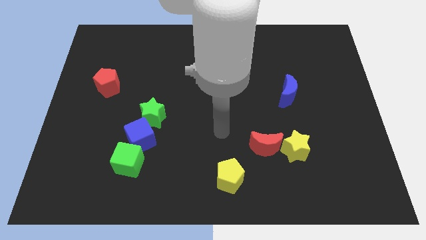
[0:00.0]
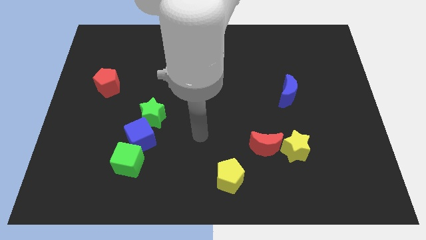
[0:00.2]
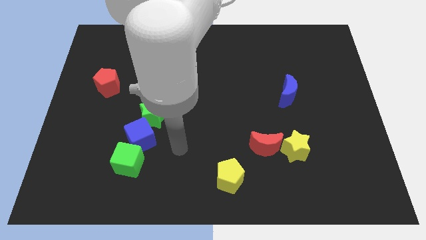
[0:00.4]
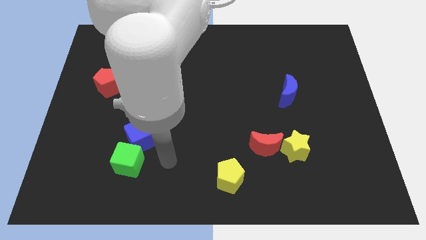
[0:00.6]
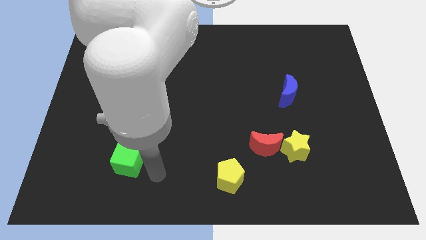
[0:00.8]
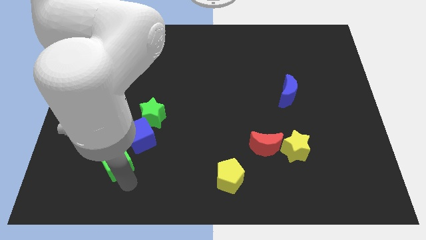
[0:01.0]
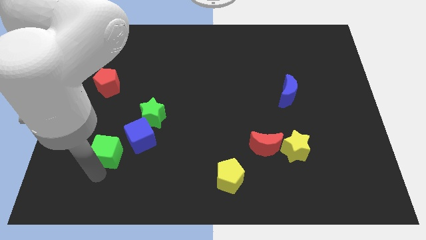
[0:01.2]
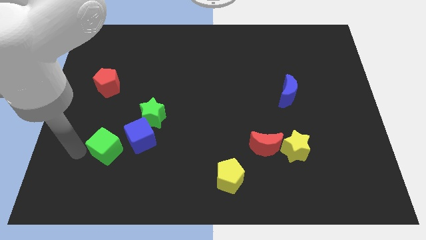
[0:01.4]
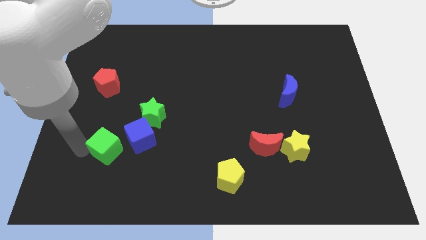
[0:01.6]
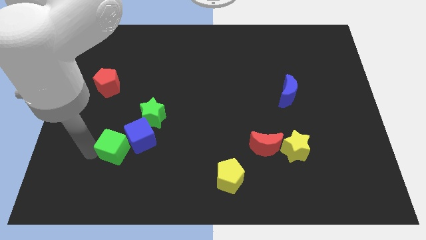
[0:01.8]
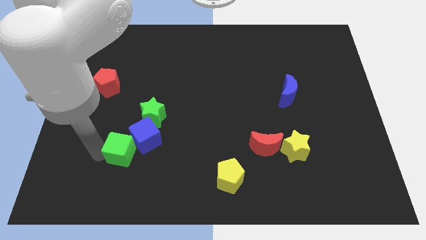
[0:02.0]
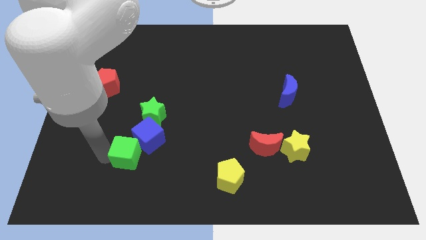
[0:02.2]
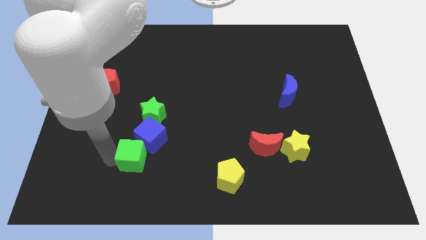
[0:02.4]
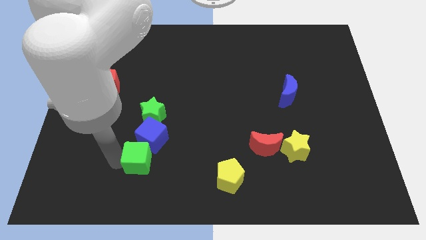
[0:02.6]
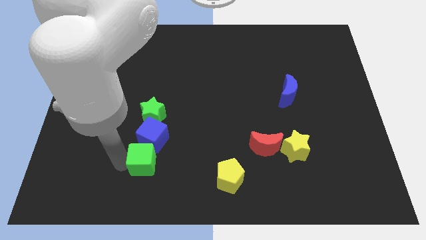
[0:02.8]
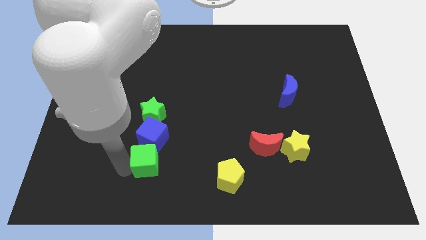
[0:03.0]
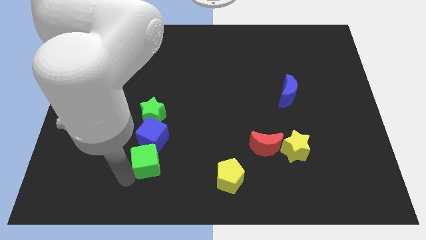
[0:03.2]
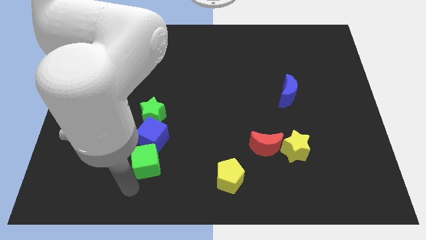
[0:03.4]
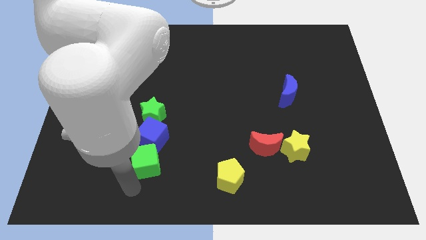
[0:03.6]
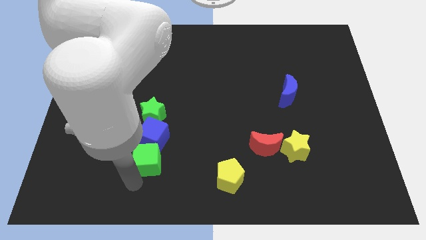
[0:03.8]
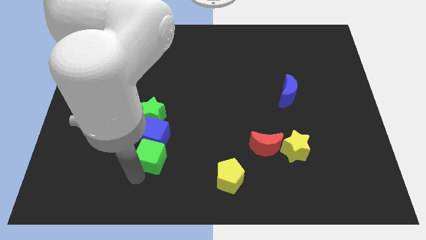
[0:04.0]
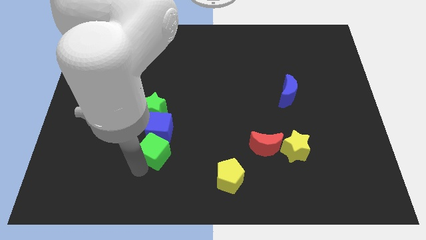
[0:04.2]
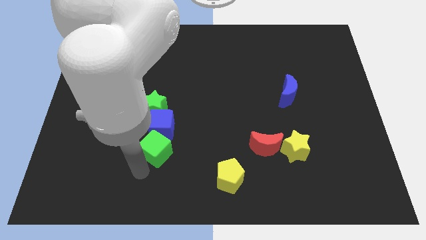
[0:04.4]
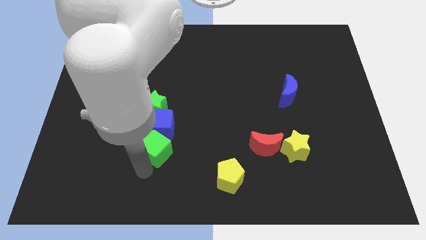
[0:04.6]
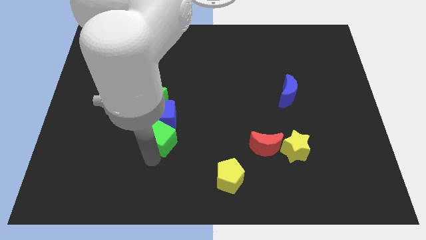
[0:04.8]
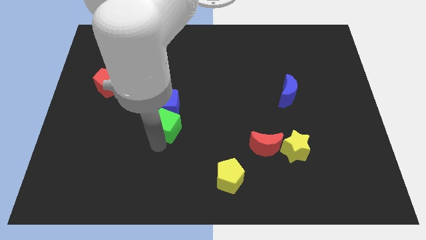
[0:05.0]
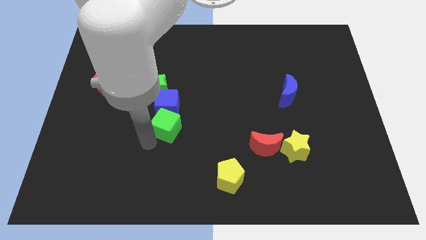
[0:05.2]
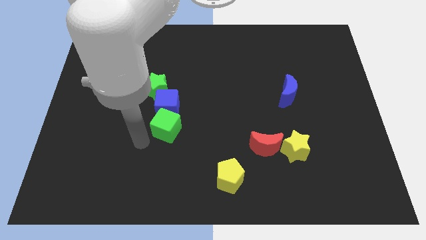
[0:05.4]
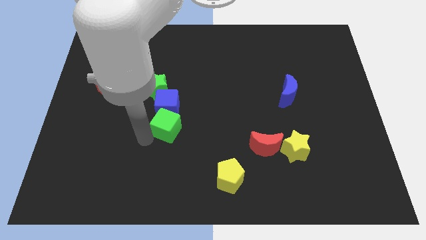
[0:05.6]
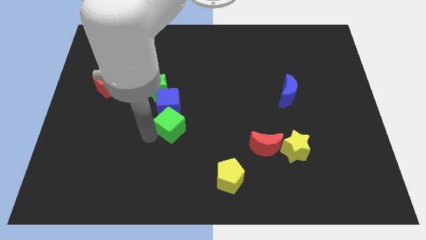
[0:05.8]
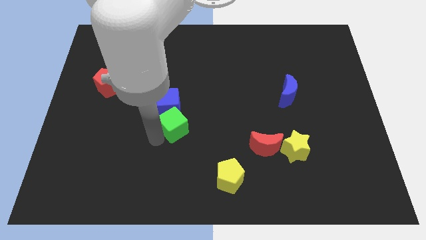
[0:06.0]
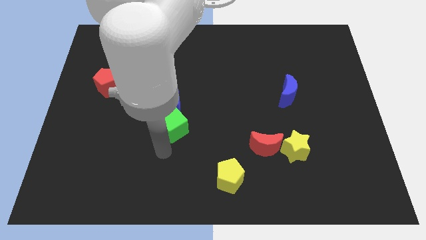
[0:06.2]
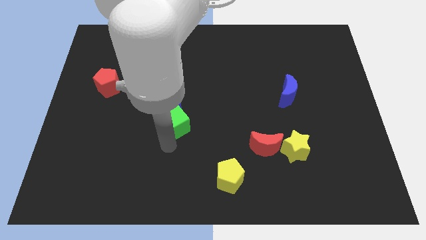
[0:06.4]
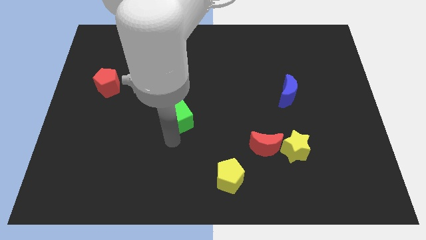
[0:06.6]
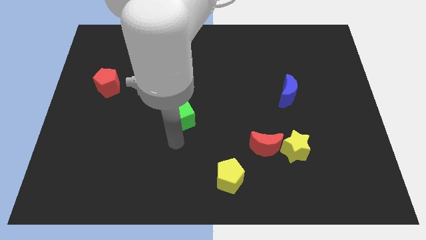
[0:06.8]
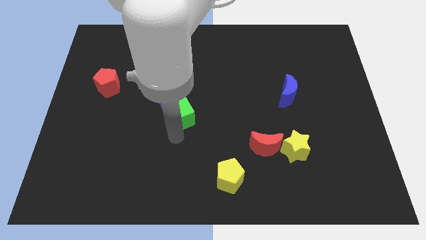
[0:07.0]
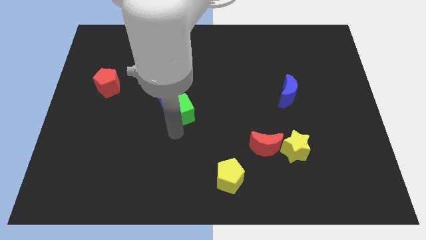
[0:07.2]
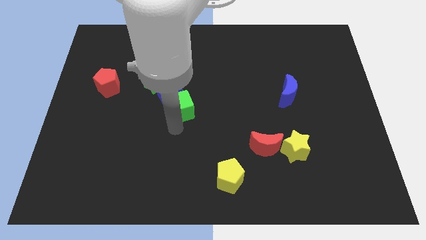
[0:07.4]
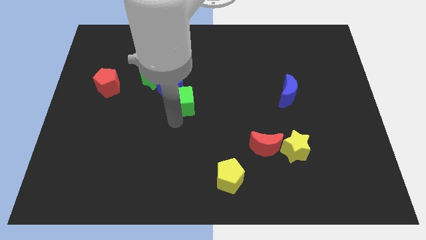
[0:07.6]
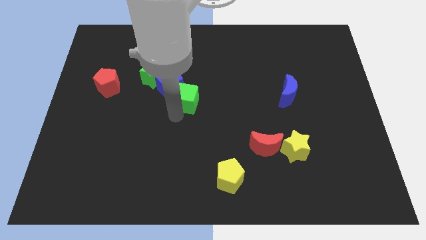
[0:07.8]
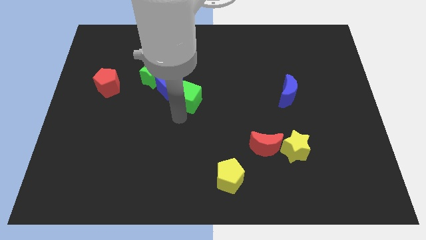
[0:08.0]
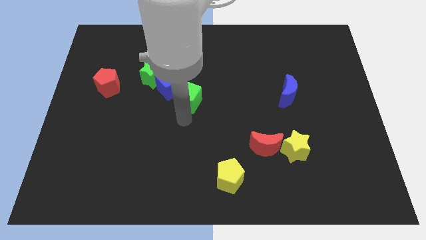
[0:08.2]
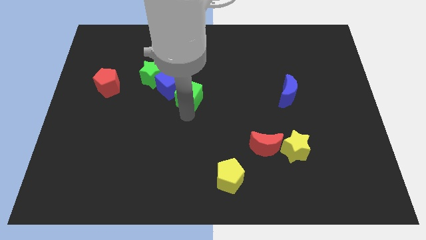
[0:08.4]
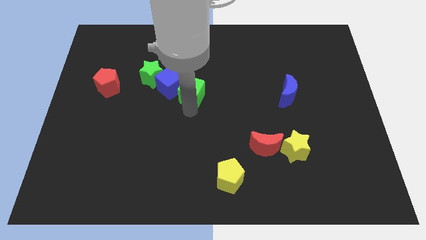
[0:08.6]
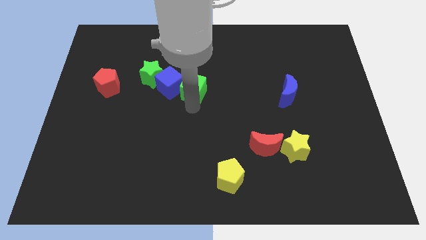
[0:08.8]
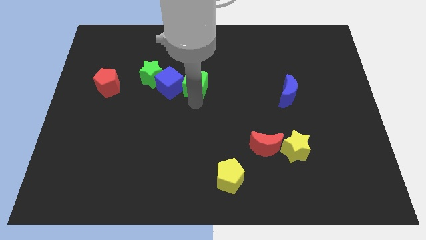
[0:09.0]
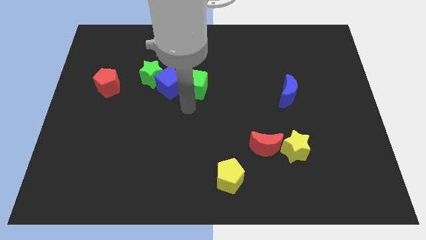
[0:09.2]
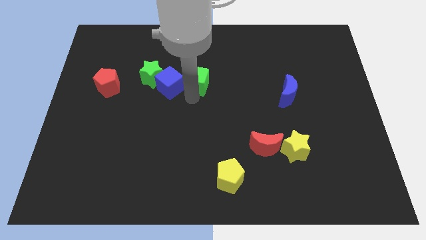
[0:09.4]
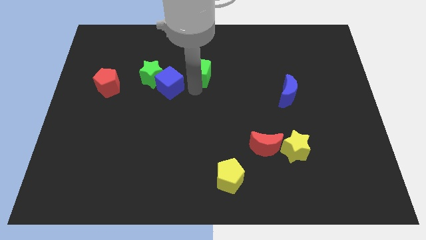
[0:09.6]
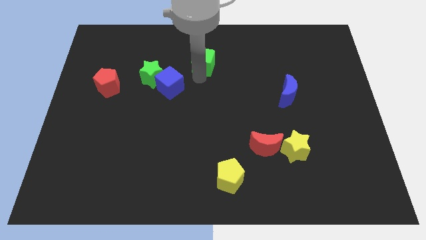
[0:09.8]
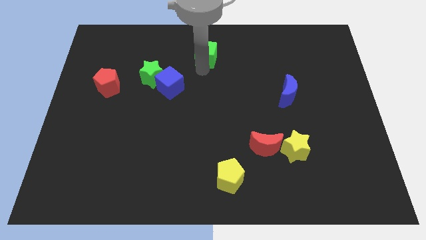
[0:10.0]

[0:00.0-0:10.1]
put the green cube to the towards your base

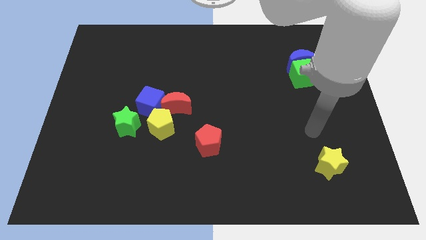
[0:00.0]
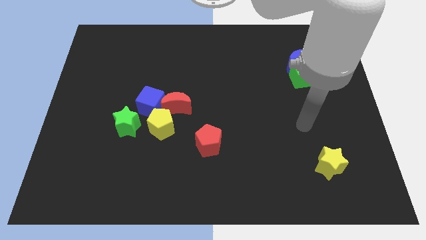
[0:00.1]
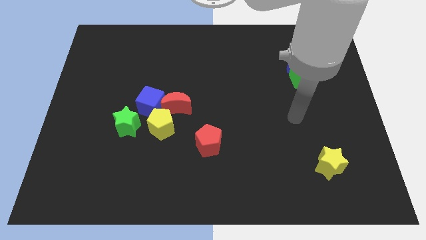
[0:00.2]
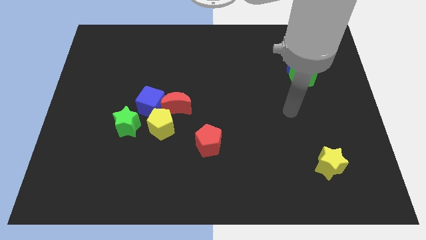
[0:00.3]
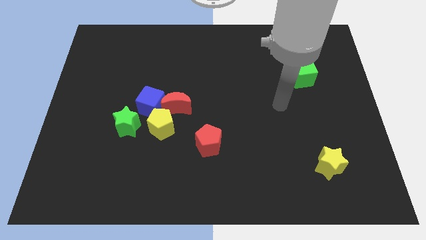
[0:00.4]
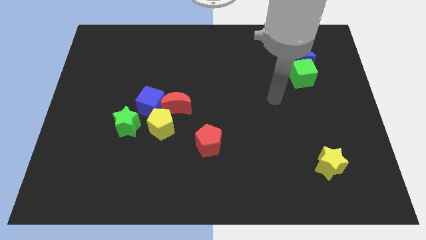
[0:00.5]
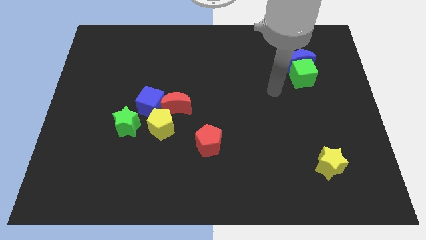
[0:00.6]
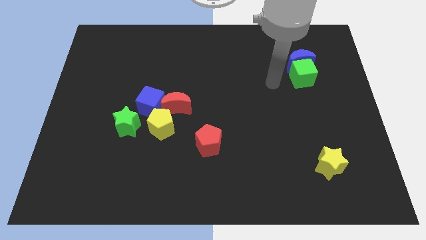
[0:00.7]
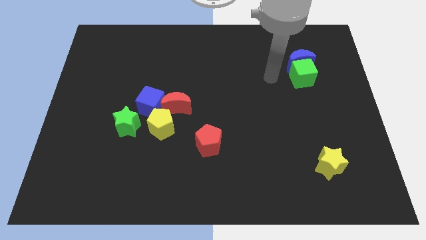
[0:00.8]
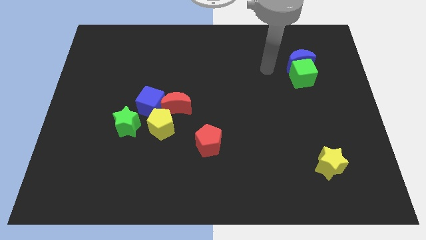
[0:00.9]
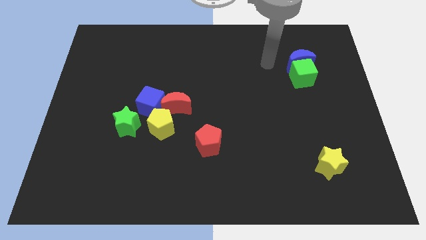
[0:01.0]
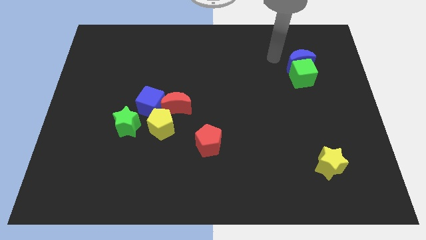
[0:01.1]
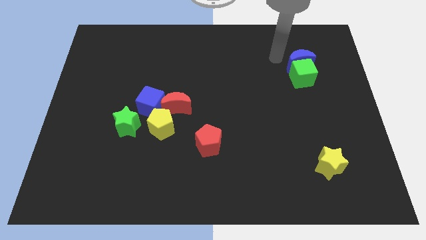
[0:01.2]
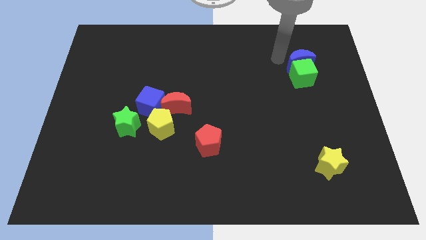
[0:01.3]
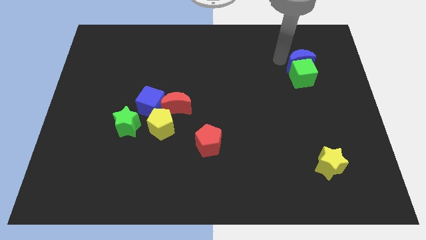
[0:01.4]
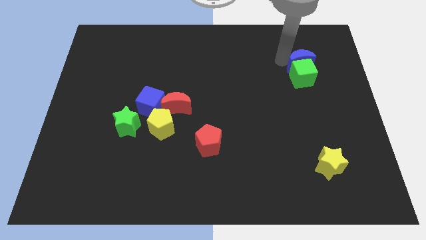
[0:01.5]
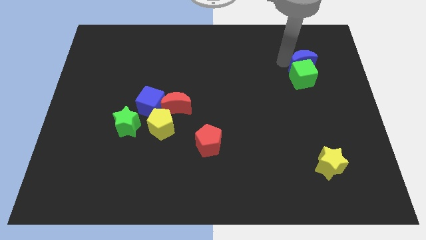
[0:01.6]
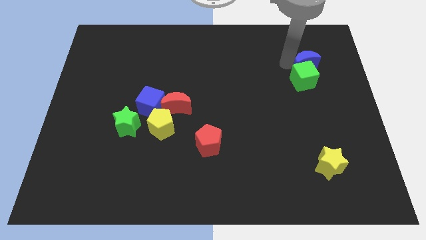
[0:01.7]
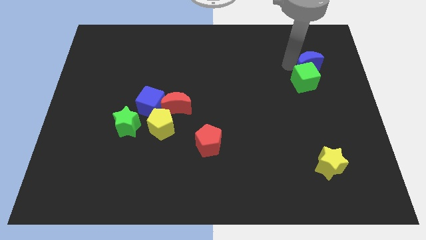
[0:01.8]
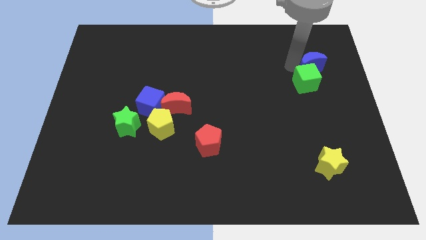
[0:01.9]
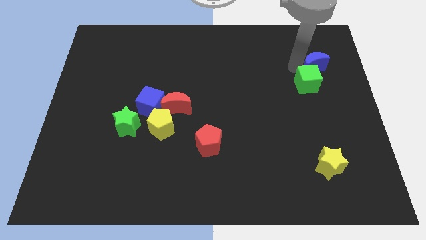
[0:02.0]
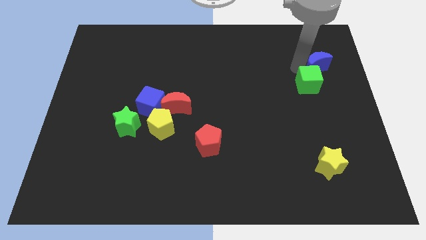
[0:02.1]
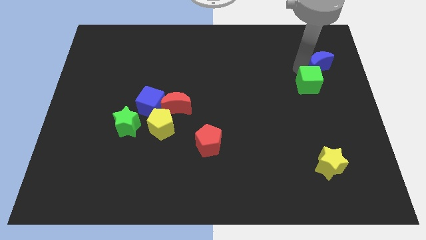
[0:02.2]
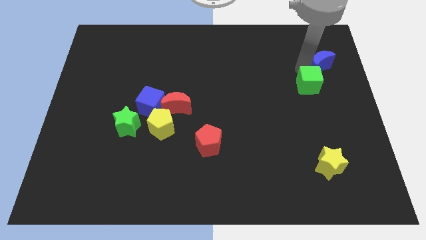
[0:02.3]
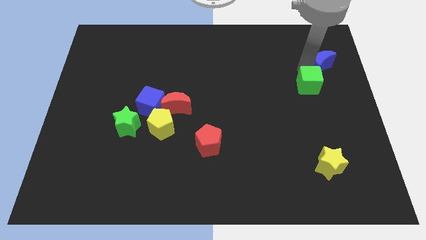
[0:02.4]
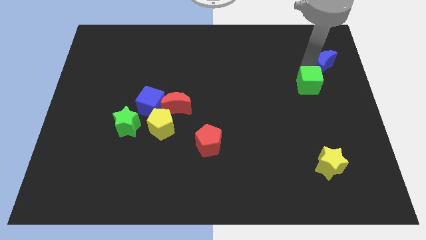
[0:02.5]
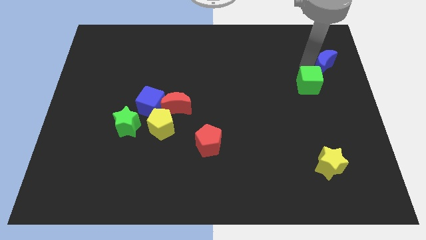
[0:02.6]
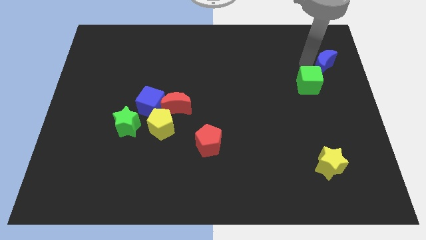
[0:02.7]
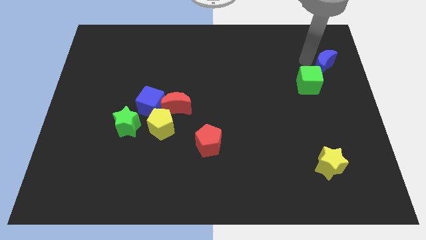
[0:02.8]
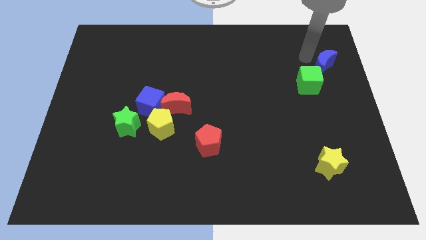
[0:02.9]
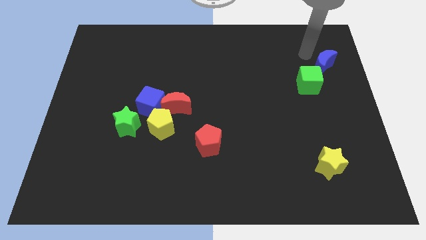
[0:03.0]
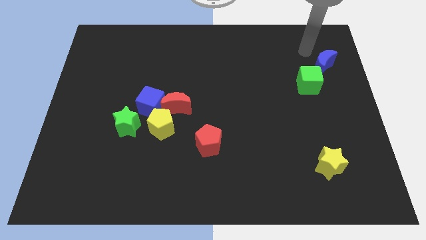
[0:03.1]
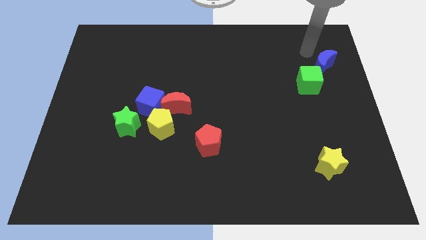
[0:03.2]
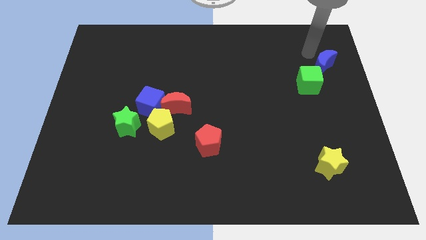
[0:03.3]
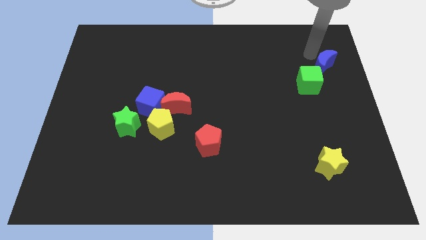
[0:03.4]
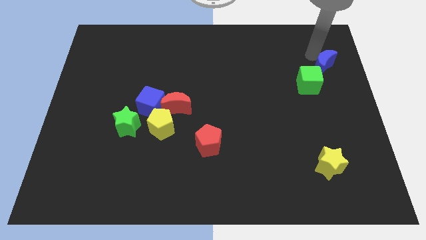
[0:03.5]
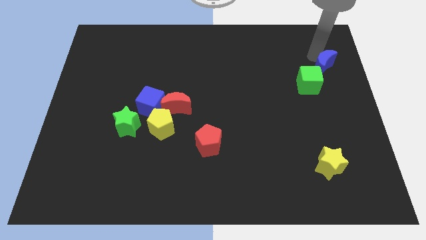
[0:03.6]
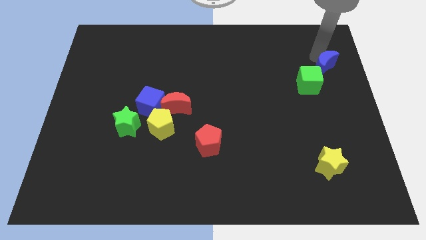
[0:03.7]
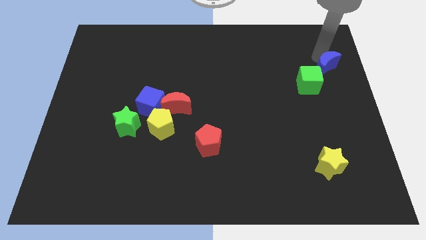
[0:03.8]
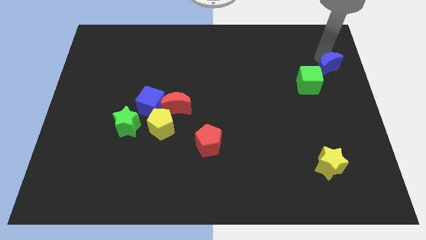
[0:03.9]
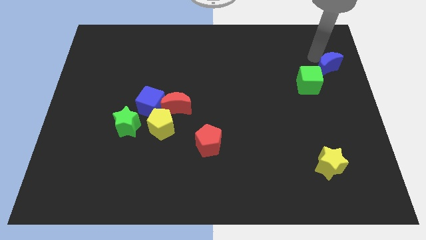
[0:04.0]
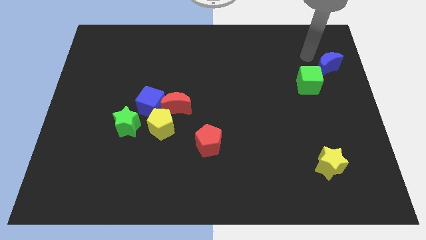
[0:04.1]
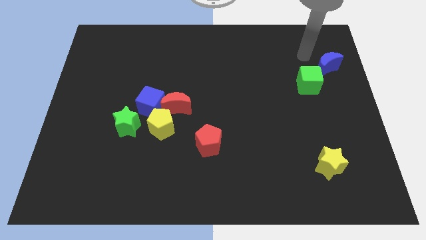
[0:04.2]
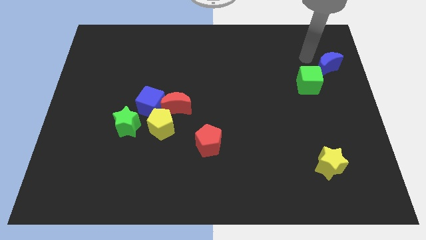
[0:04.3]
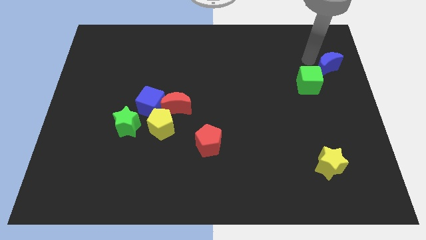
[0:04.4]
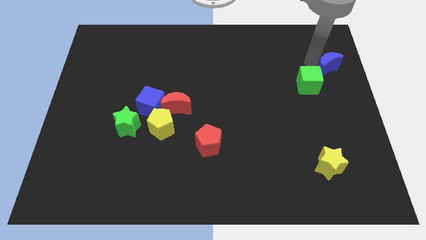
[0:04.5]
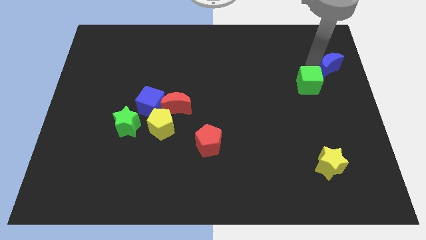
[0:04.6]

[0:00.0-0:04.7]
slide the blue moon to the center right
